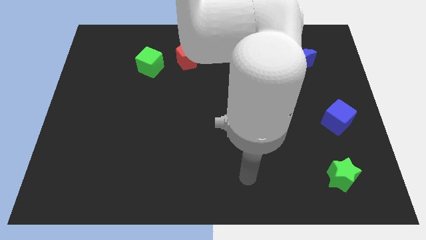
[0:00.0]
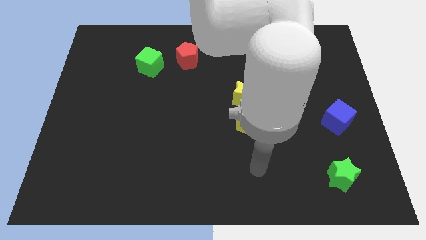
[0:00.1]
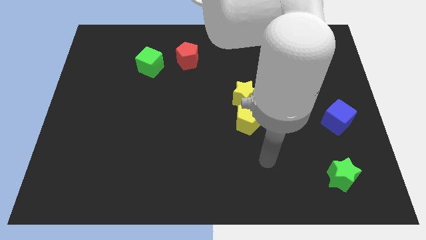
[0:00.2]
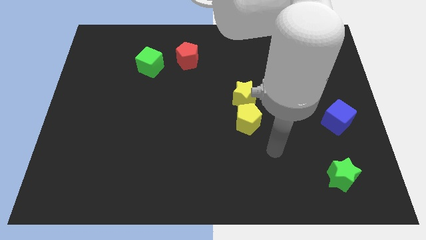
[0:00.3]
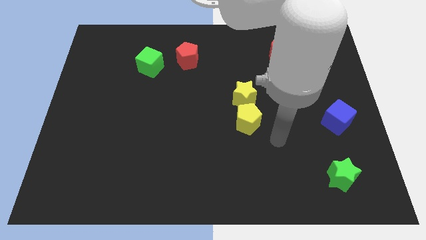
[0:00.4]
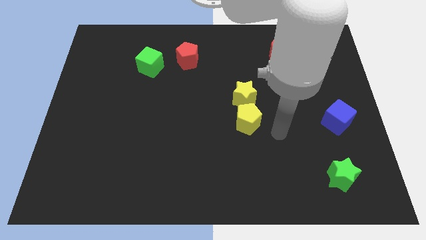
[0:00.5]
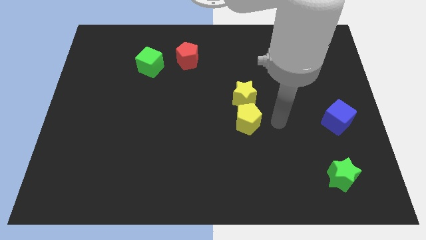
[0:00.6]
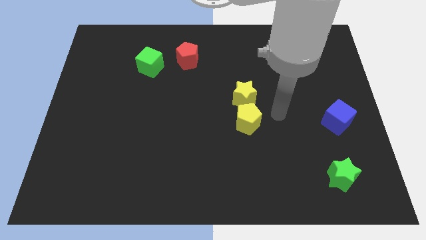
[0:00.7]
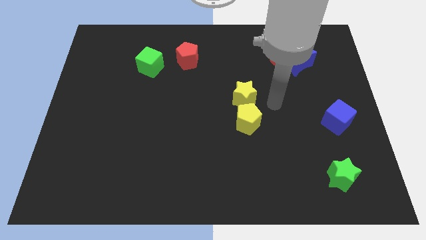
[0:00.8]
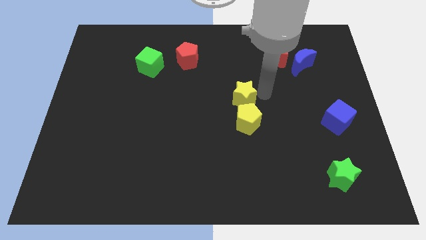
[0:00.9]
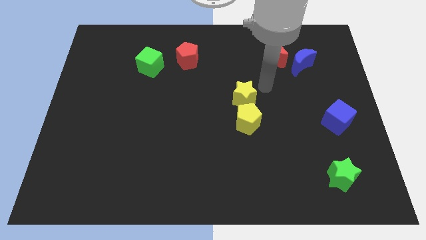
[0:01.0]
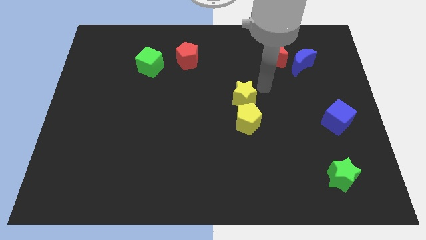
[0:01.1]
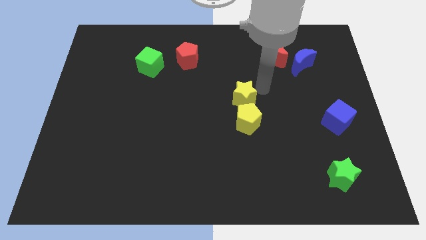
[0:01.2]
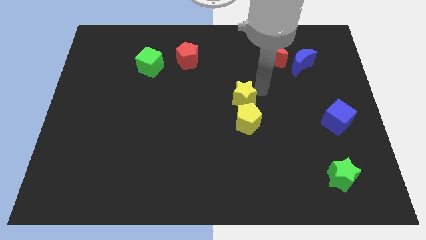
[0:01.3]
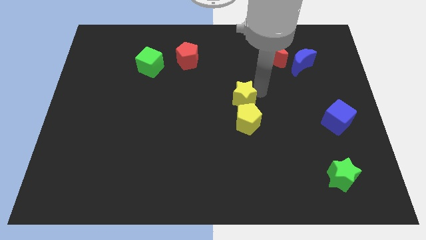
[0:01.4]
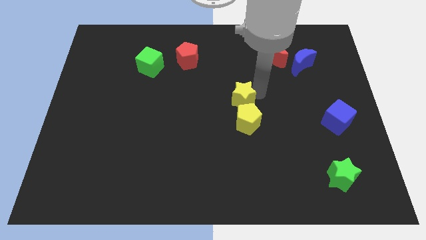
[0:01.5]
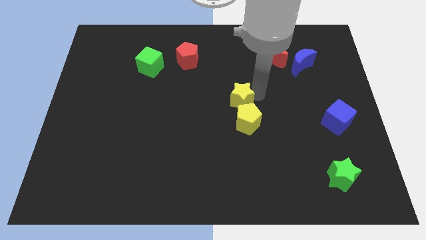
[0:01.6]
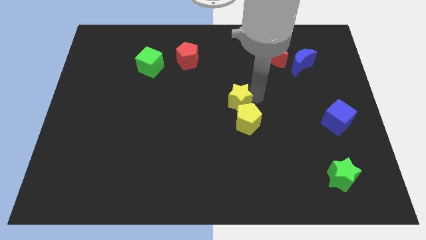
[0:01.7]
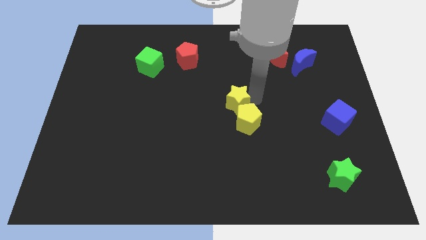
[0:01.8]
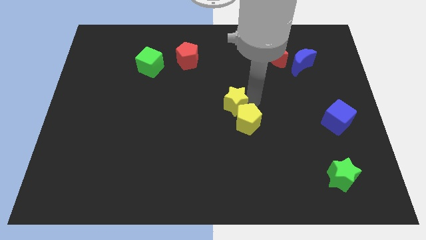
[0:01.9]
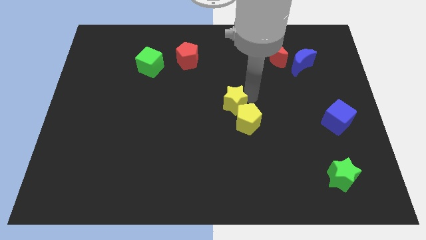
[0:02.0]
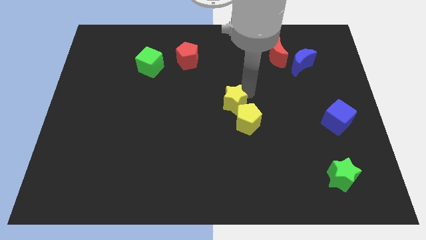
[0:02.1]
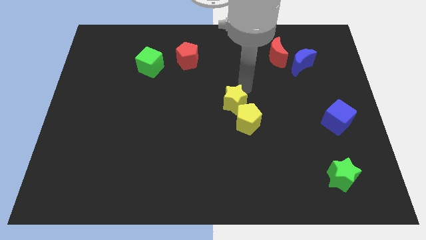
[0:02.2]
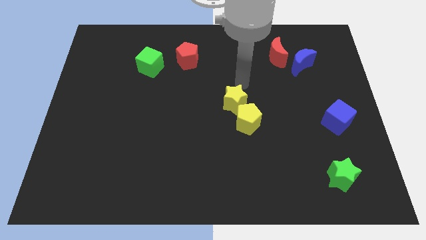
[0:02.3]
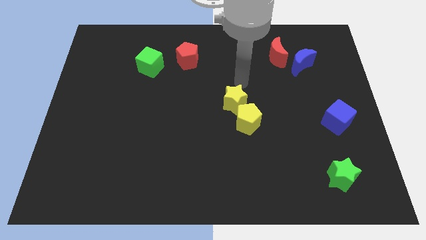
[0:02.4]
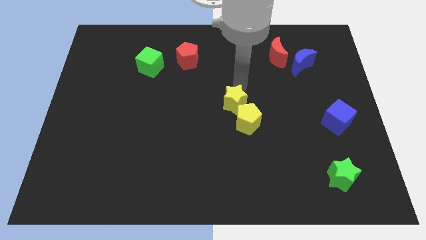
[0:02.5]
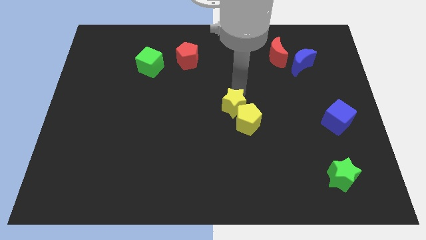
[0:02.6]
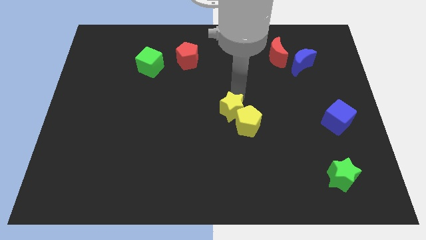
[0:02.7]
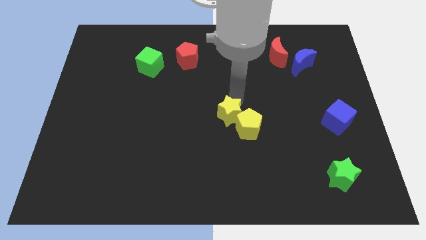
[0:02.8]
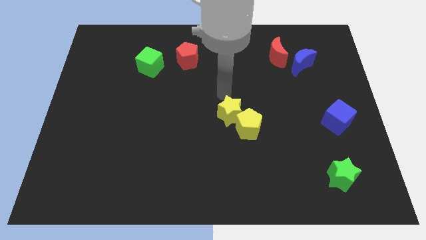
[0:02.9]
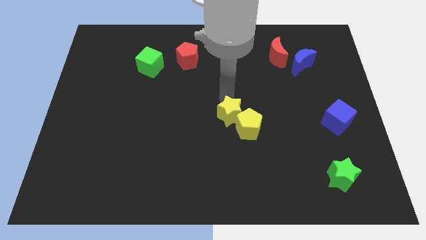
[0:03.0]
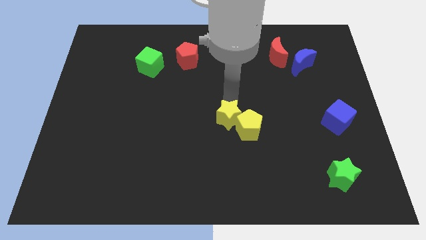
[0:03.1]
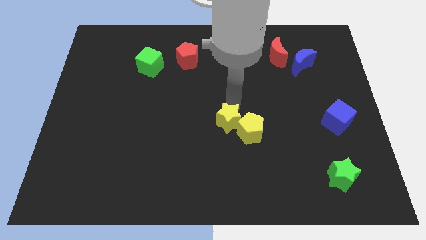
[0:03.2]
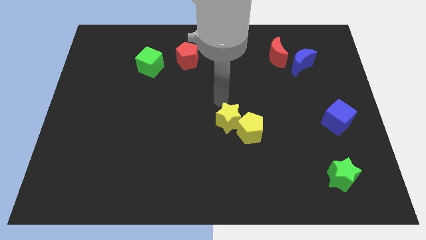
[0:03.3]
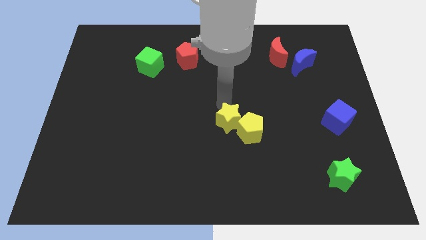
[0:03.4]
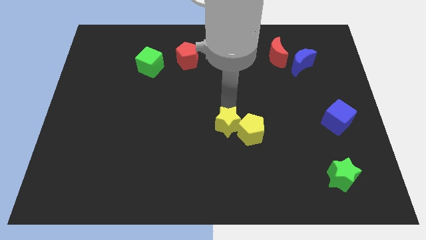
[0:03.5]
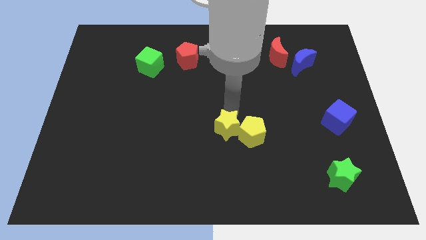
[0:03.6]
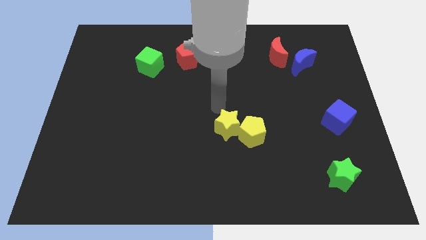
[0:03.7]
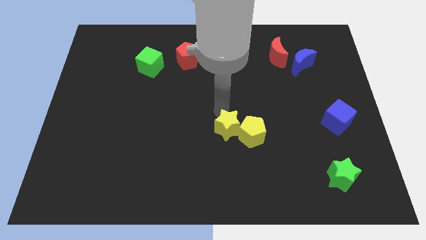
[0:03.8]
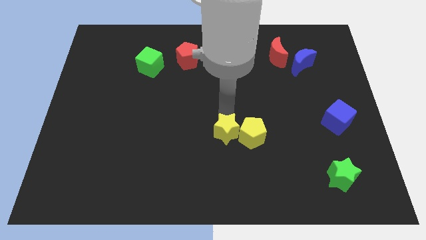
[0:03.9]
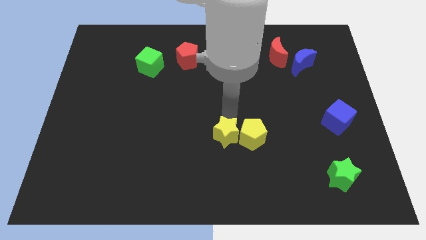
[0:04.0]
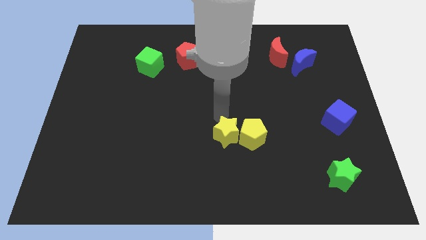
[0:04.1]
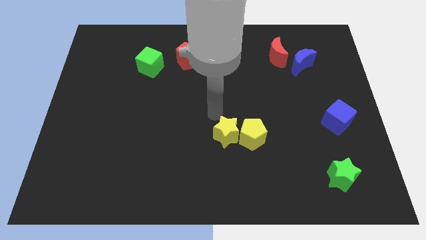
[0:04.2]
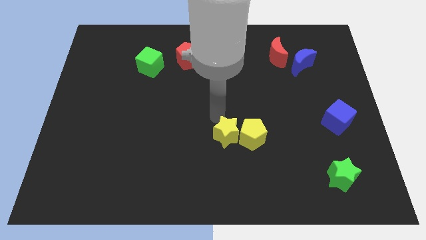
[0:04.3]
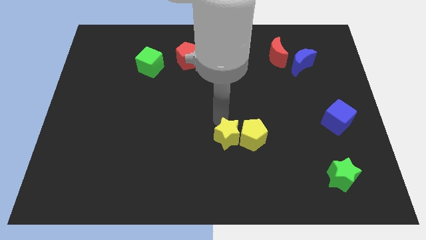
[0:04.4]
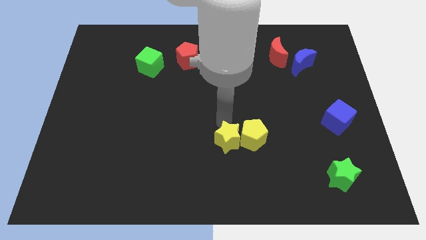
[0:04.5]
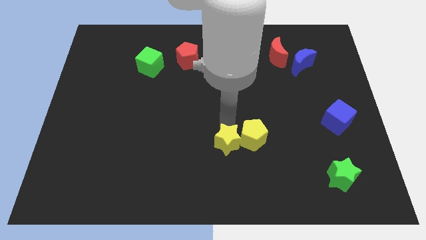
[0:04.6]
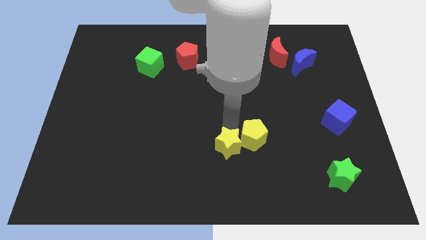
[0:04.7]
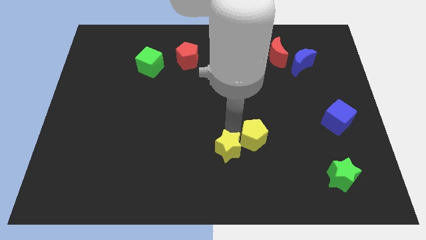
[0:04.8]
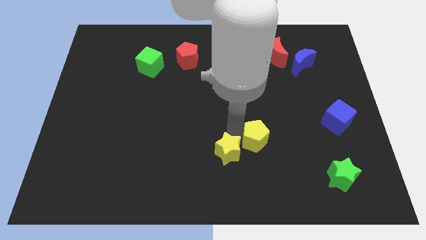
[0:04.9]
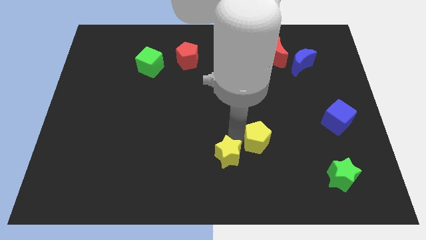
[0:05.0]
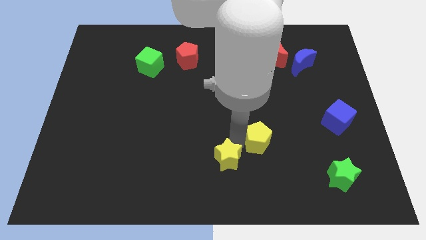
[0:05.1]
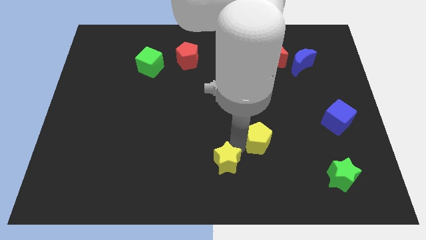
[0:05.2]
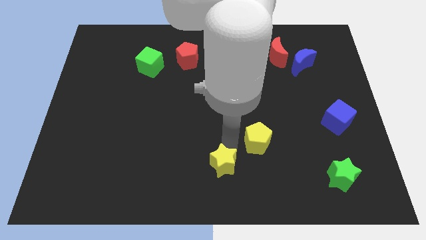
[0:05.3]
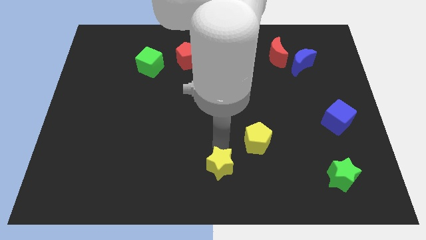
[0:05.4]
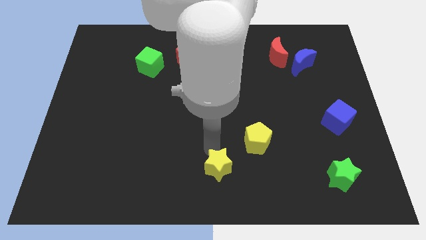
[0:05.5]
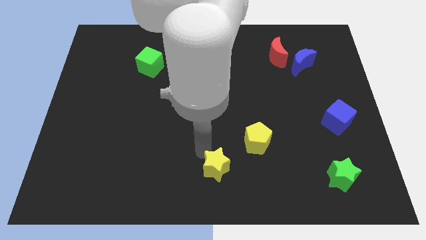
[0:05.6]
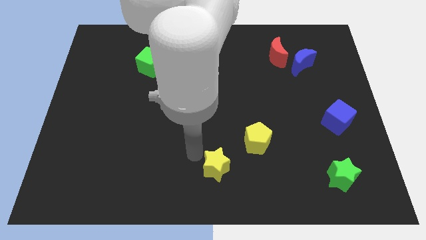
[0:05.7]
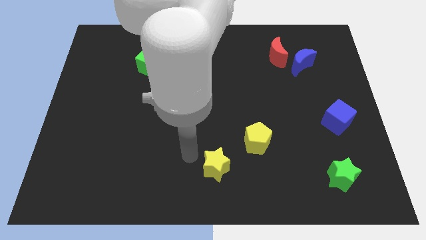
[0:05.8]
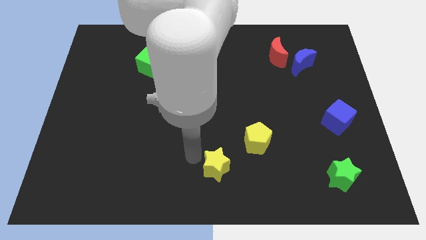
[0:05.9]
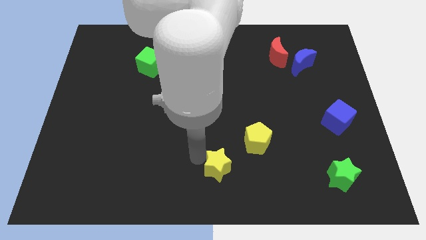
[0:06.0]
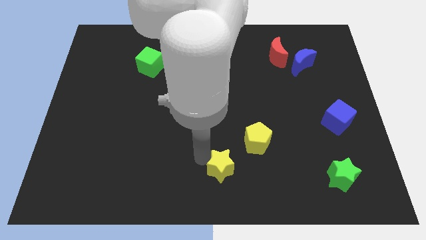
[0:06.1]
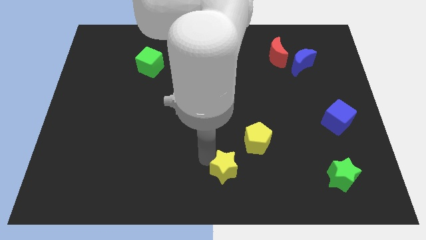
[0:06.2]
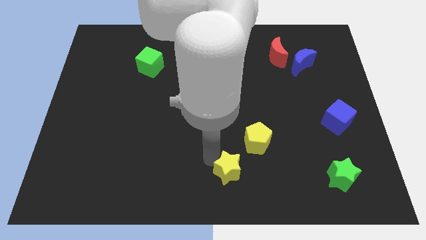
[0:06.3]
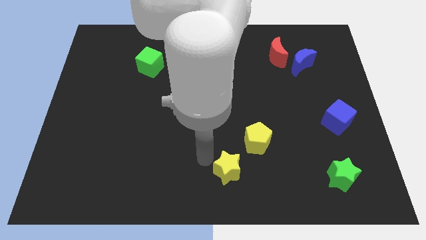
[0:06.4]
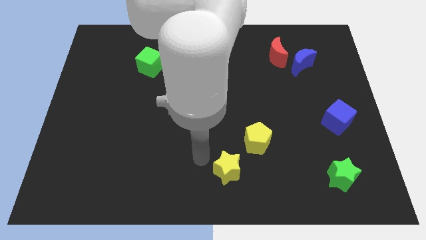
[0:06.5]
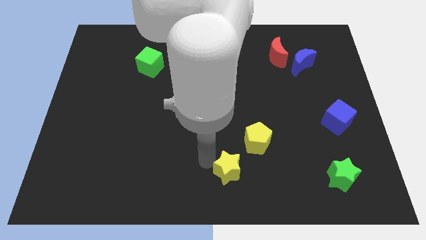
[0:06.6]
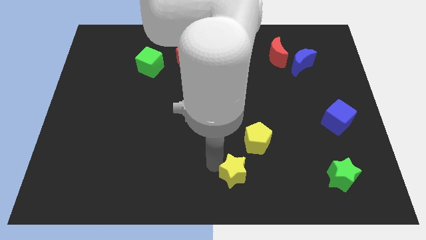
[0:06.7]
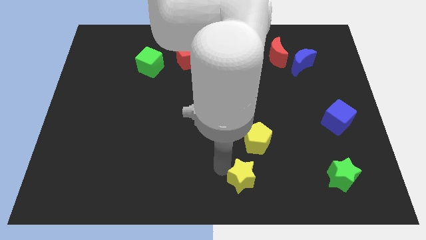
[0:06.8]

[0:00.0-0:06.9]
move the yellow star to the bottom of the yellow pentagon
